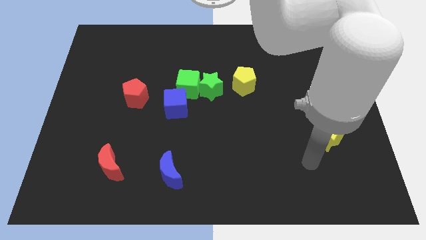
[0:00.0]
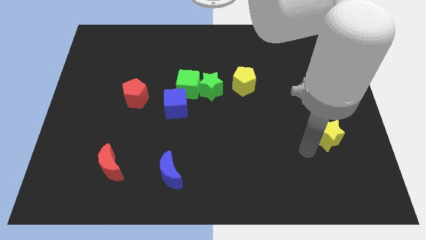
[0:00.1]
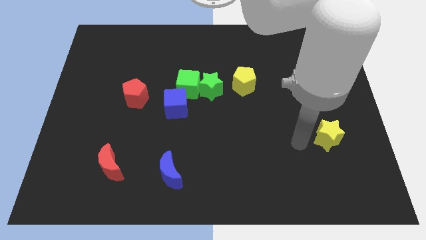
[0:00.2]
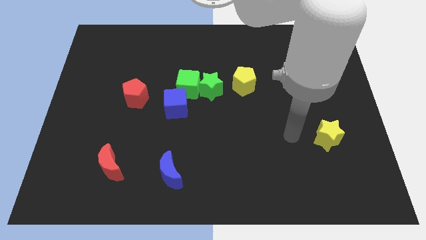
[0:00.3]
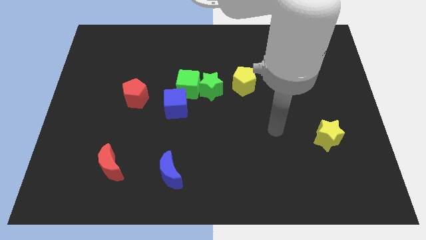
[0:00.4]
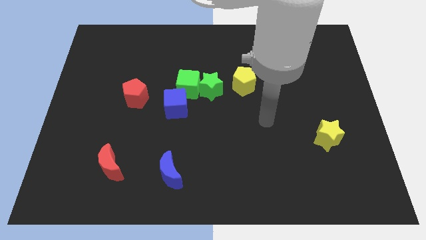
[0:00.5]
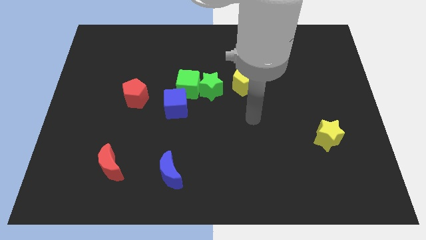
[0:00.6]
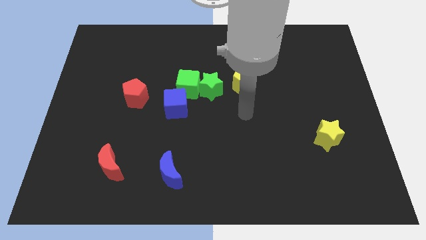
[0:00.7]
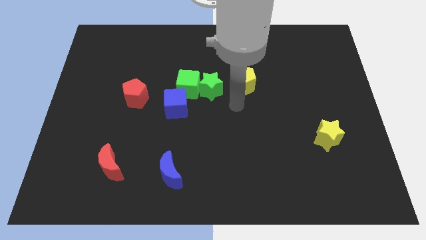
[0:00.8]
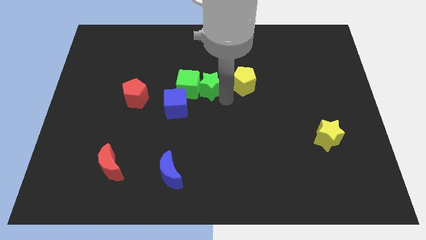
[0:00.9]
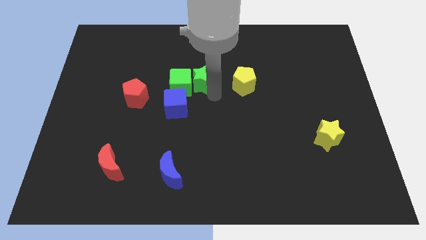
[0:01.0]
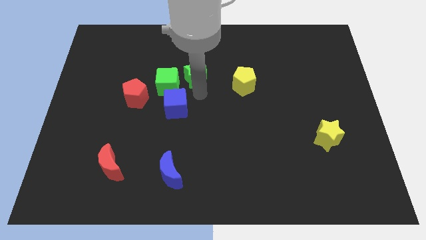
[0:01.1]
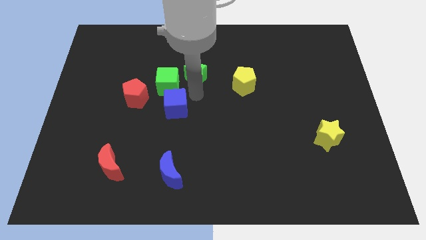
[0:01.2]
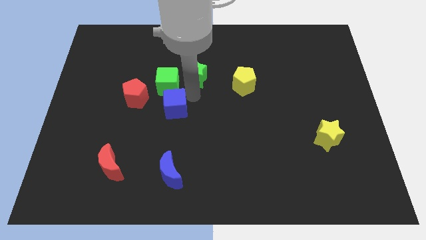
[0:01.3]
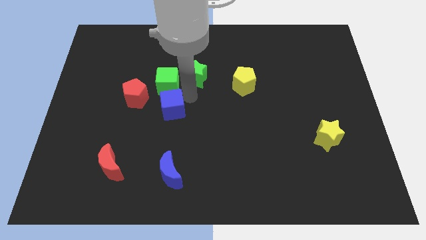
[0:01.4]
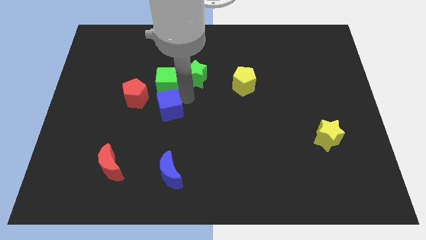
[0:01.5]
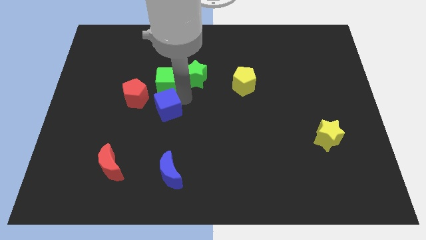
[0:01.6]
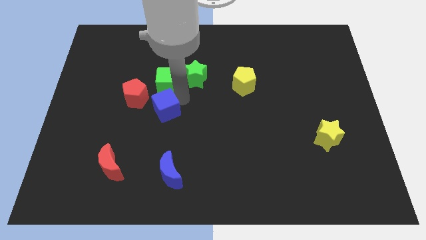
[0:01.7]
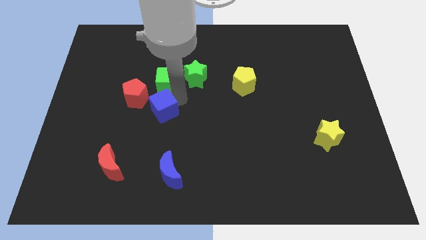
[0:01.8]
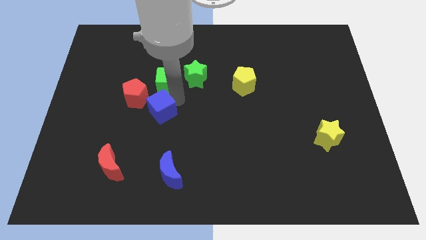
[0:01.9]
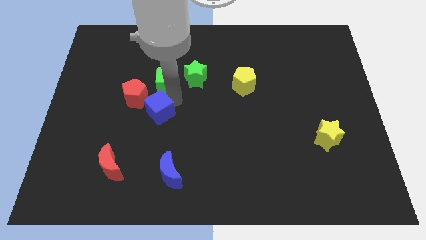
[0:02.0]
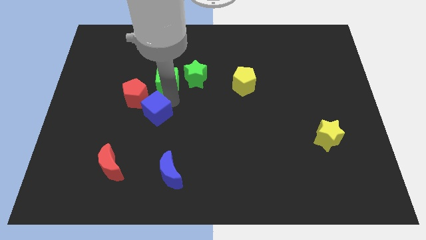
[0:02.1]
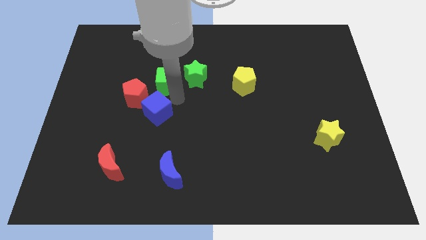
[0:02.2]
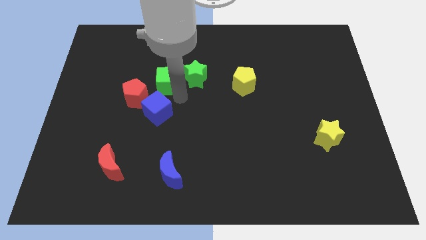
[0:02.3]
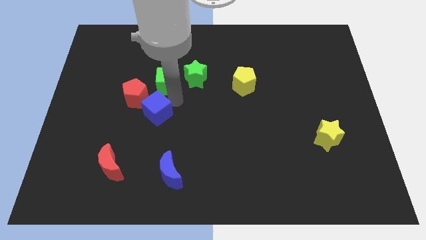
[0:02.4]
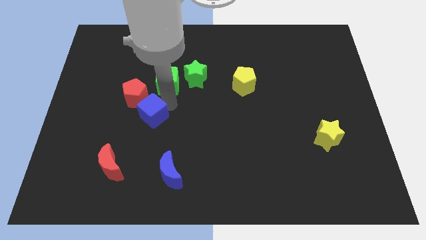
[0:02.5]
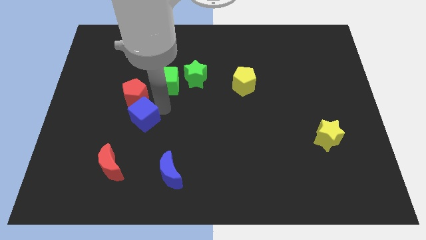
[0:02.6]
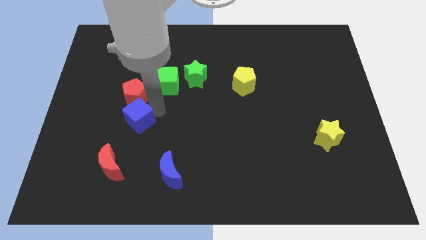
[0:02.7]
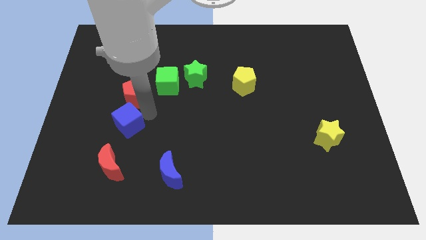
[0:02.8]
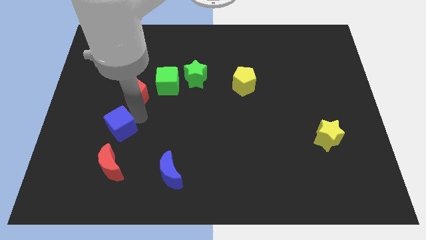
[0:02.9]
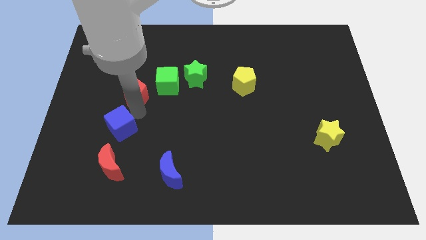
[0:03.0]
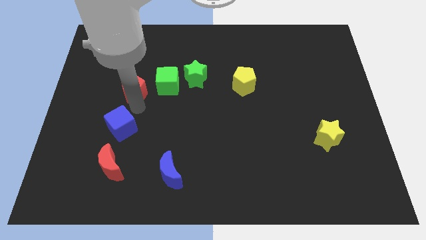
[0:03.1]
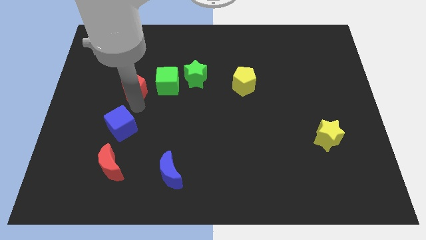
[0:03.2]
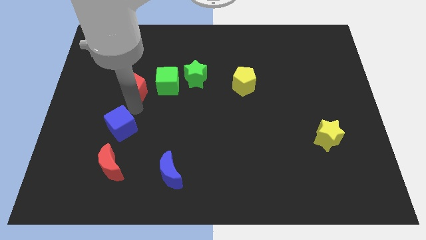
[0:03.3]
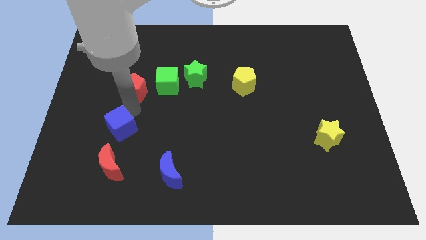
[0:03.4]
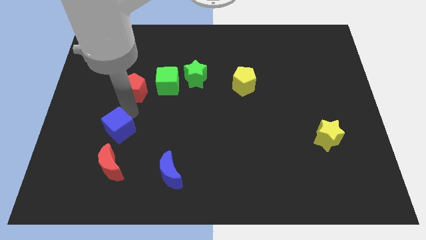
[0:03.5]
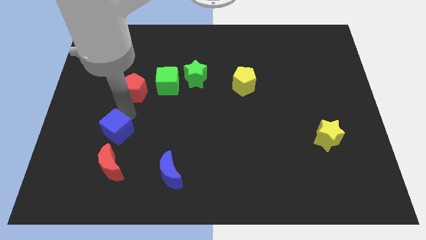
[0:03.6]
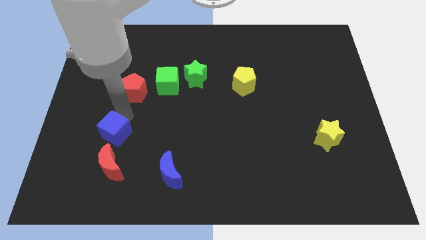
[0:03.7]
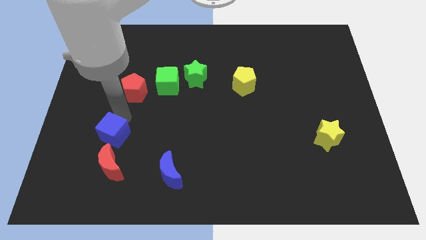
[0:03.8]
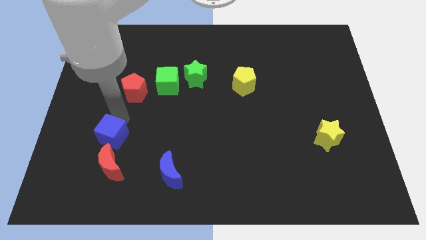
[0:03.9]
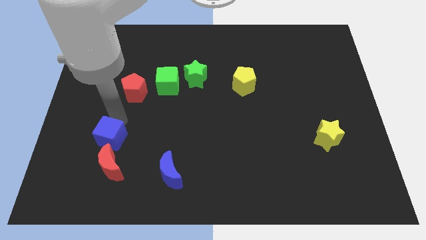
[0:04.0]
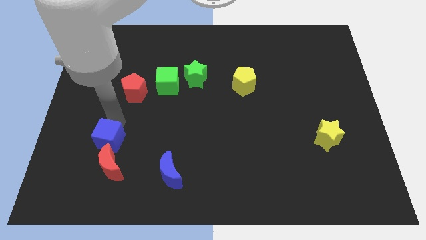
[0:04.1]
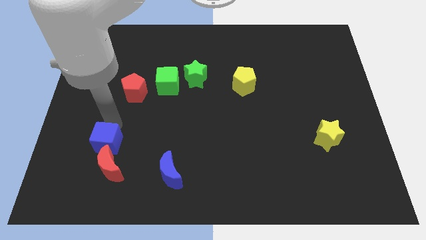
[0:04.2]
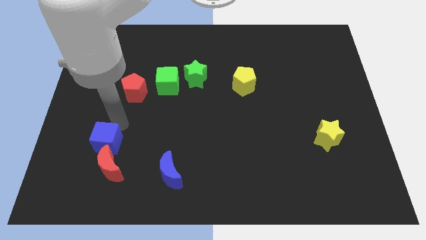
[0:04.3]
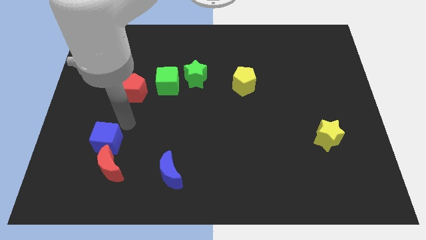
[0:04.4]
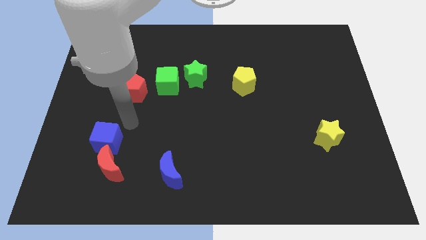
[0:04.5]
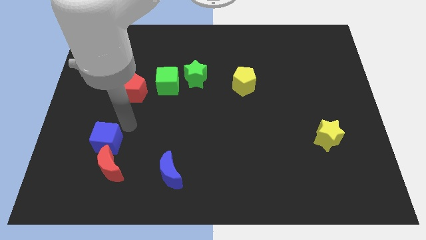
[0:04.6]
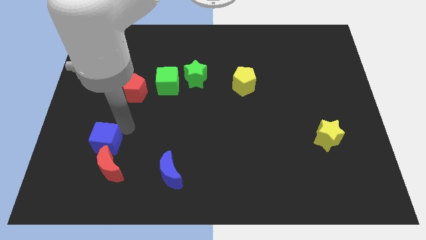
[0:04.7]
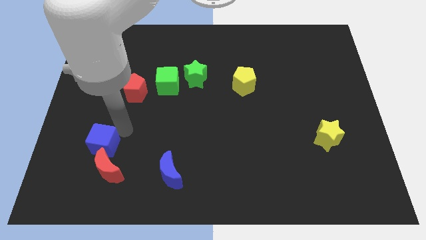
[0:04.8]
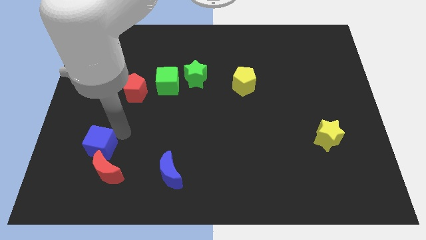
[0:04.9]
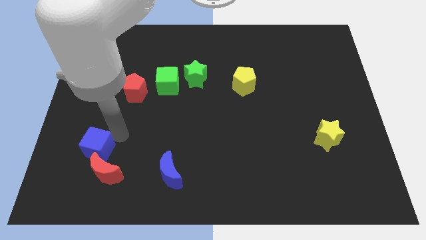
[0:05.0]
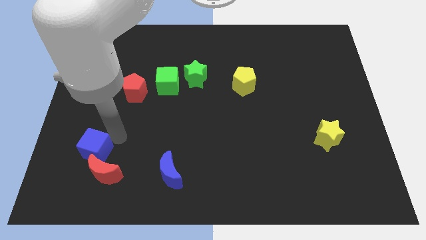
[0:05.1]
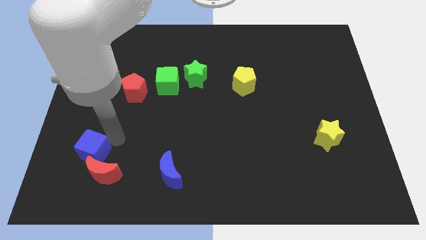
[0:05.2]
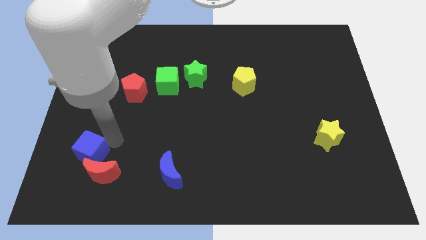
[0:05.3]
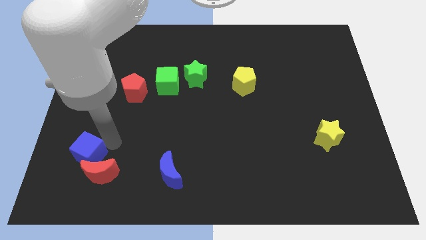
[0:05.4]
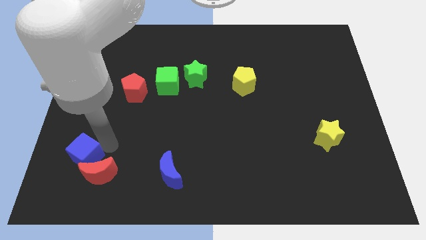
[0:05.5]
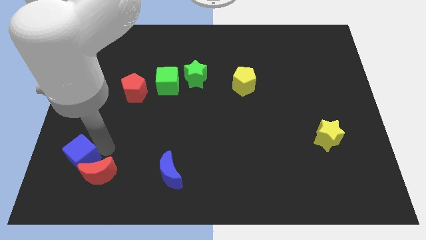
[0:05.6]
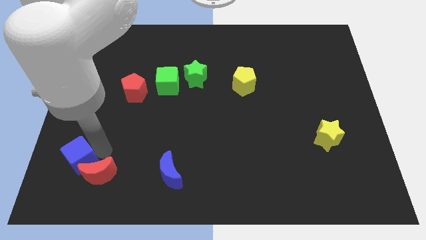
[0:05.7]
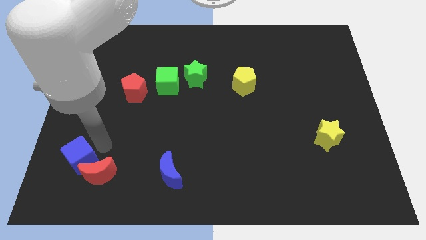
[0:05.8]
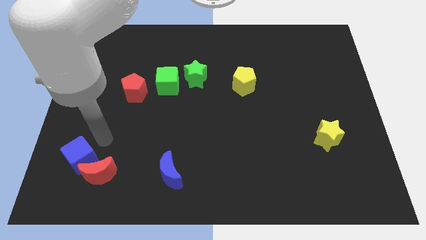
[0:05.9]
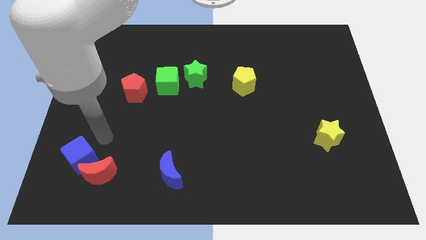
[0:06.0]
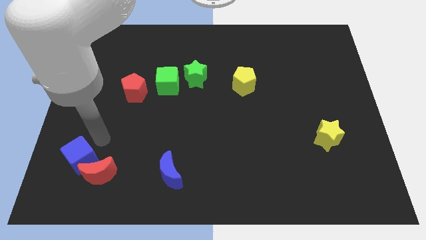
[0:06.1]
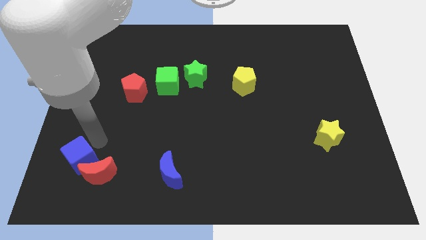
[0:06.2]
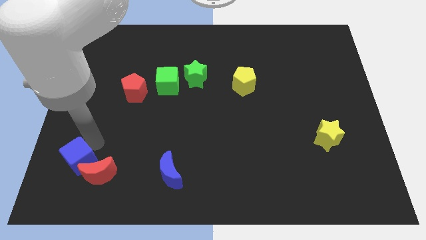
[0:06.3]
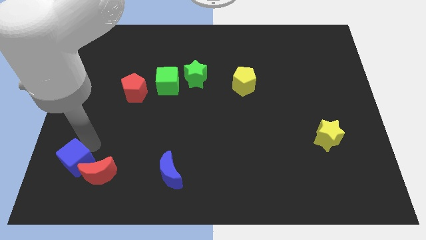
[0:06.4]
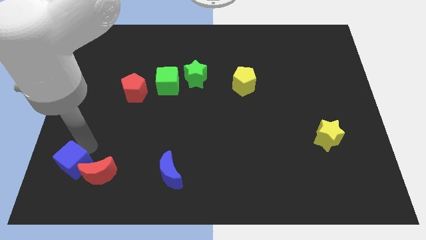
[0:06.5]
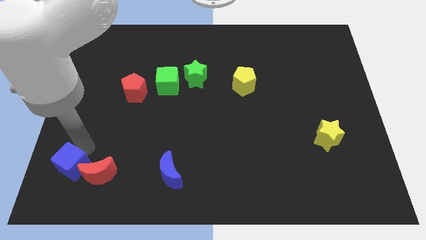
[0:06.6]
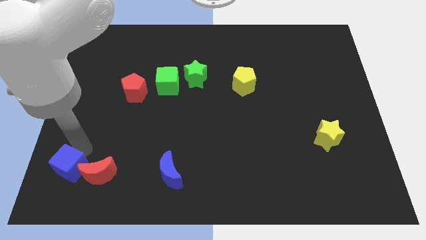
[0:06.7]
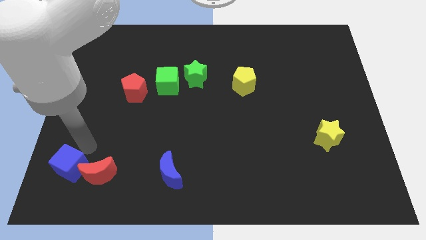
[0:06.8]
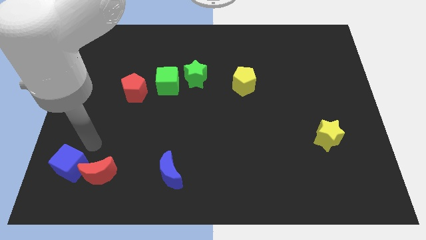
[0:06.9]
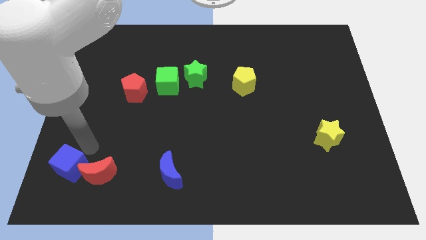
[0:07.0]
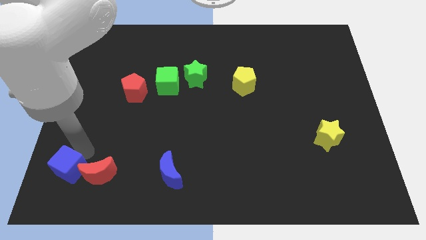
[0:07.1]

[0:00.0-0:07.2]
push the blue cube to the bottom left
